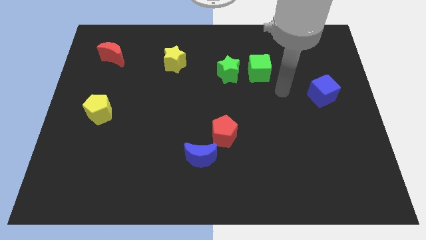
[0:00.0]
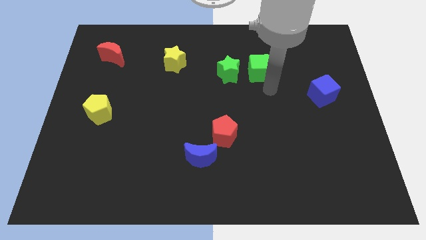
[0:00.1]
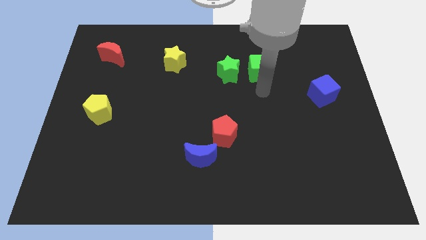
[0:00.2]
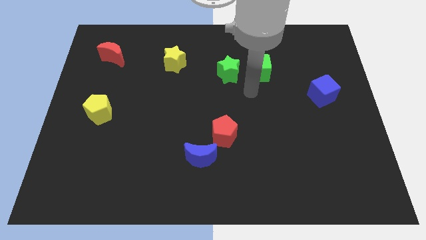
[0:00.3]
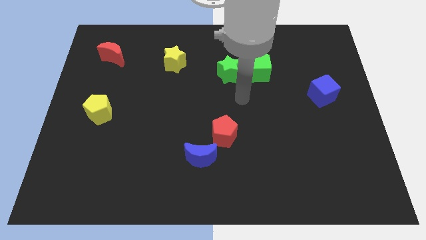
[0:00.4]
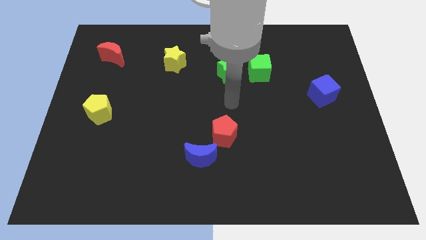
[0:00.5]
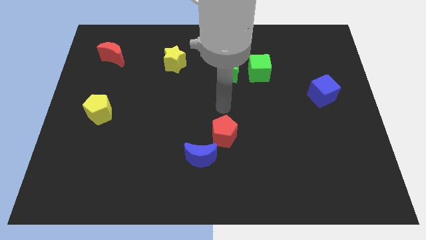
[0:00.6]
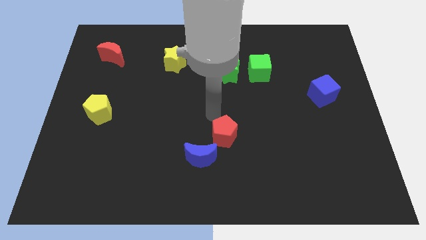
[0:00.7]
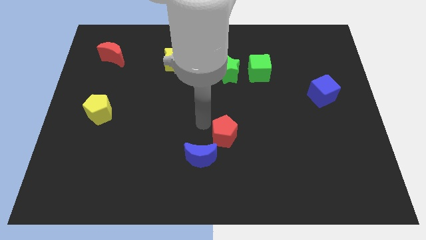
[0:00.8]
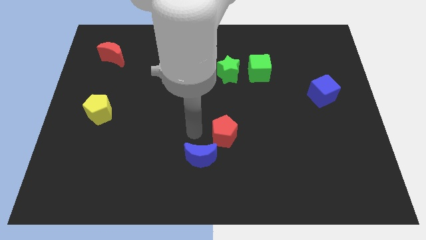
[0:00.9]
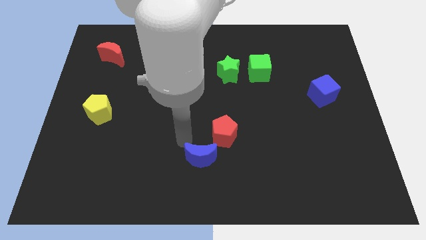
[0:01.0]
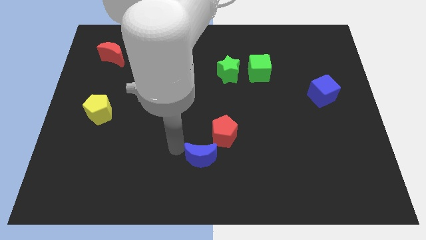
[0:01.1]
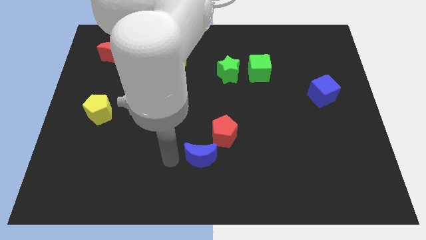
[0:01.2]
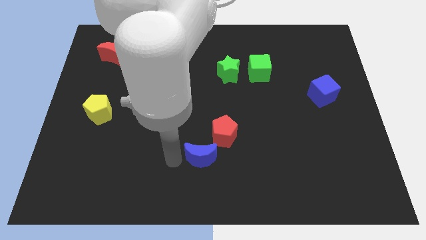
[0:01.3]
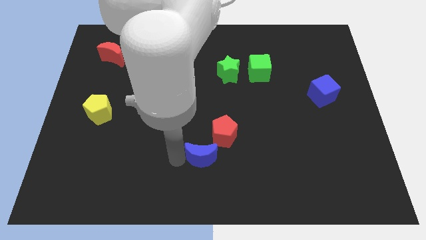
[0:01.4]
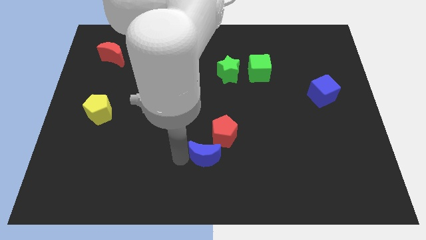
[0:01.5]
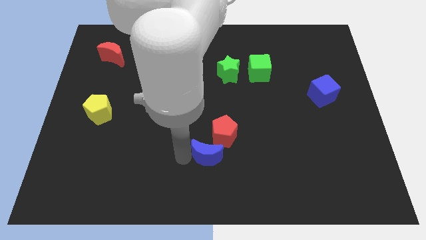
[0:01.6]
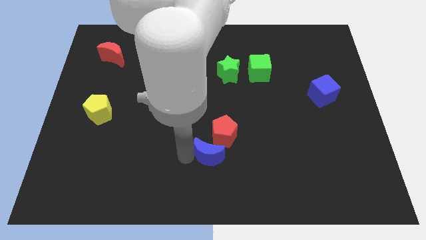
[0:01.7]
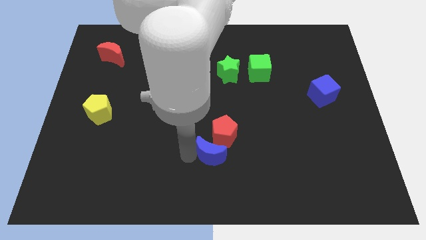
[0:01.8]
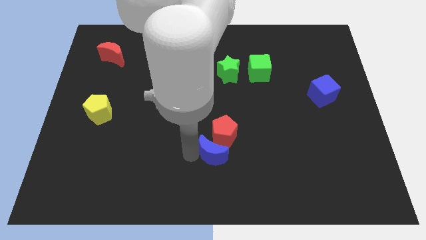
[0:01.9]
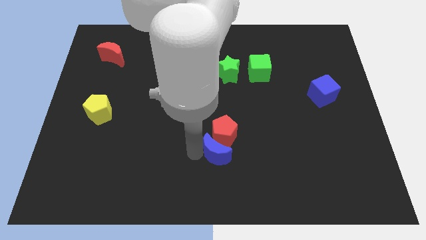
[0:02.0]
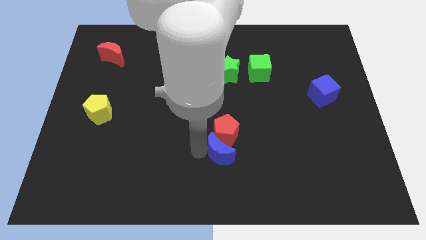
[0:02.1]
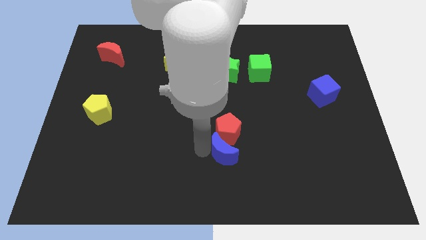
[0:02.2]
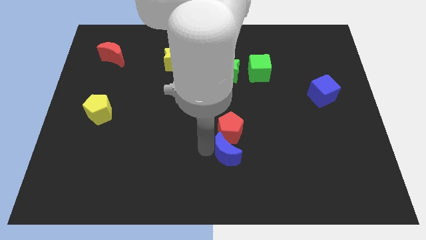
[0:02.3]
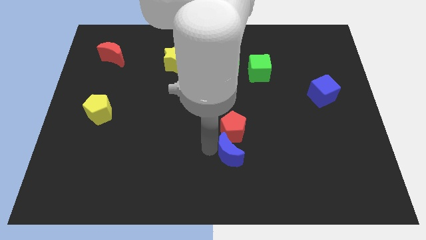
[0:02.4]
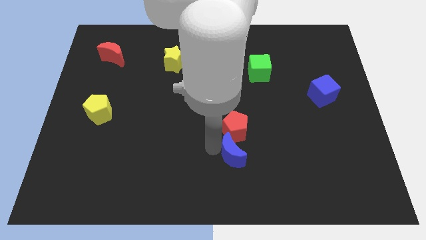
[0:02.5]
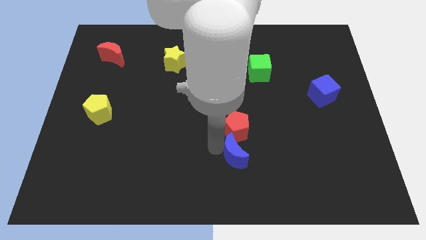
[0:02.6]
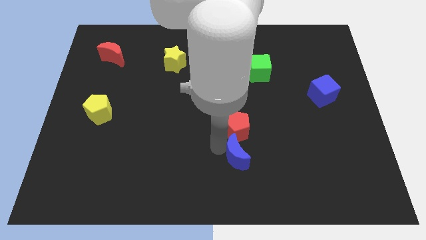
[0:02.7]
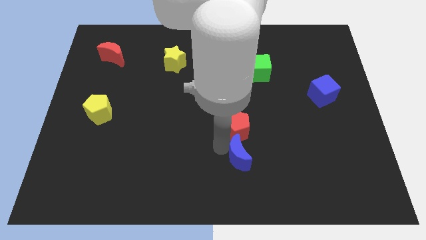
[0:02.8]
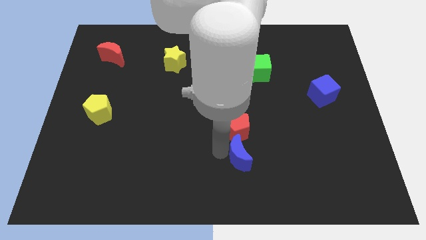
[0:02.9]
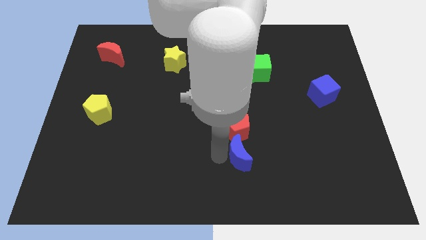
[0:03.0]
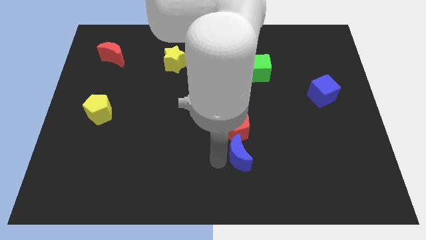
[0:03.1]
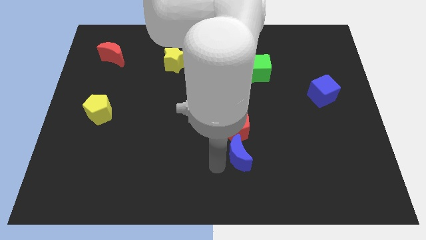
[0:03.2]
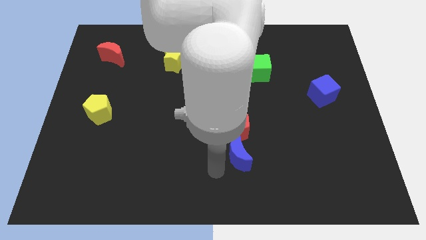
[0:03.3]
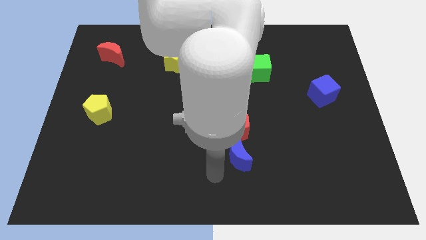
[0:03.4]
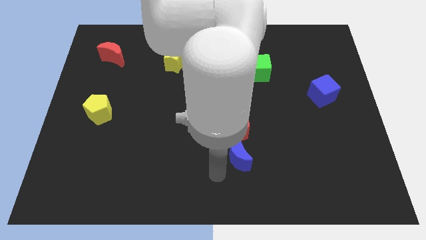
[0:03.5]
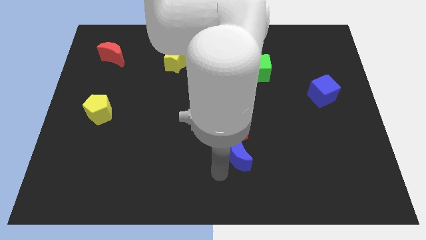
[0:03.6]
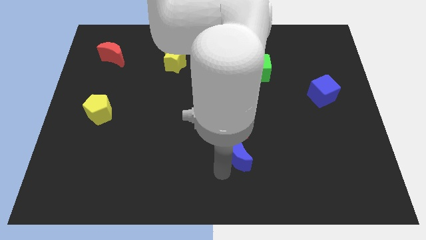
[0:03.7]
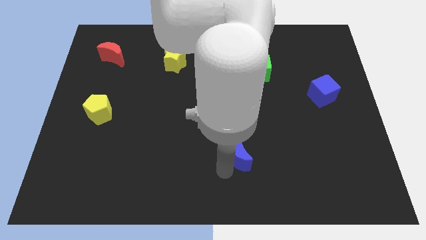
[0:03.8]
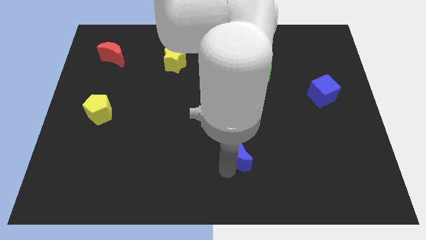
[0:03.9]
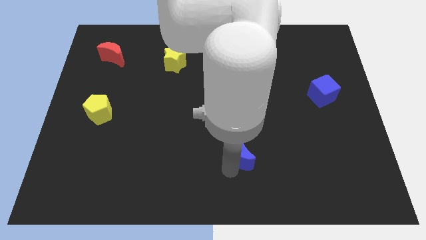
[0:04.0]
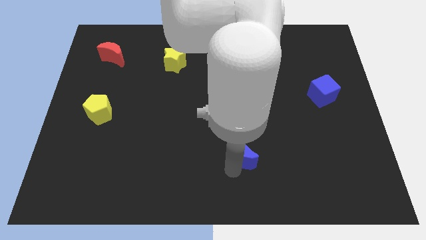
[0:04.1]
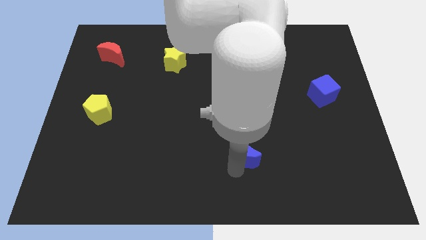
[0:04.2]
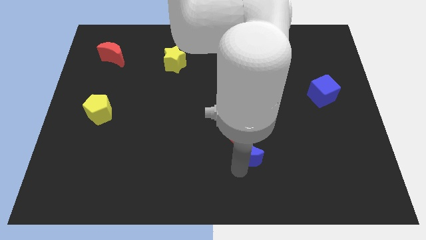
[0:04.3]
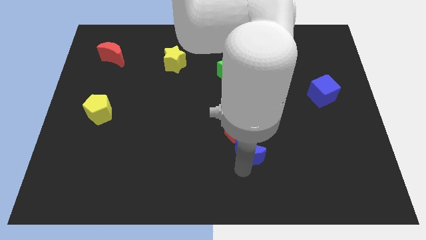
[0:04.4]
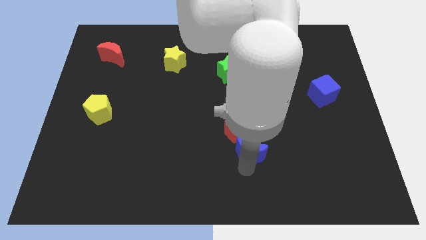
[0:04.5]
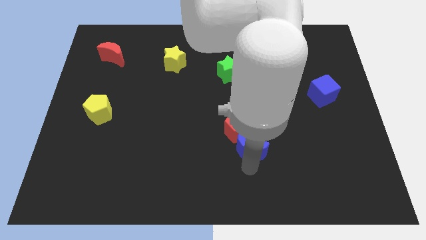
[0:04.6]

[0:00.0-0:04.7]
slide the blue moon a little up and to the right

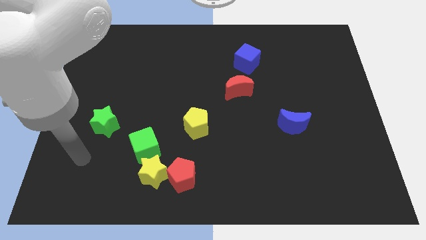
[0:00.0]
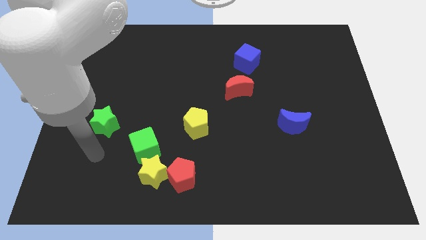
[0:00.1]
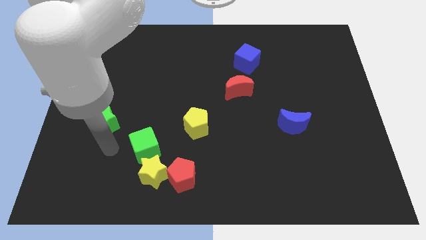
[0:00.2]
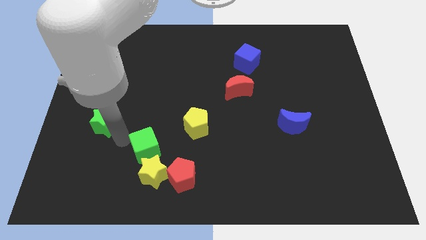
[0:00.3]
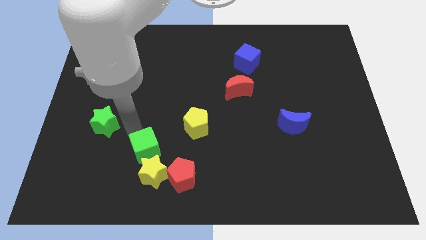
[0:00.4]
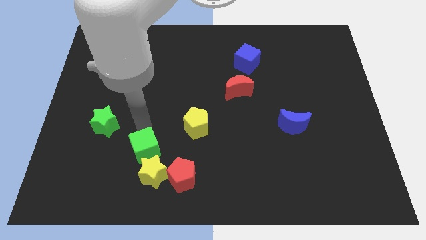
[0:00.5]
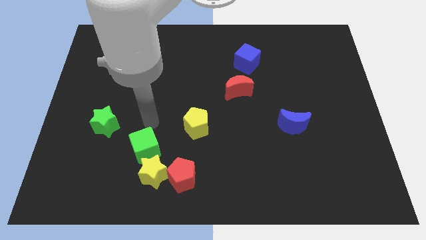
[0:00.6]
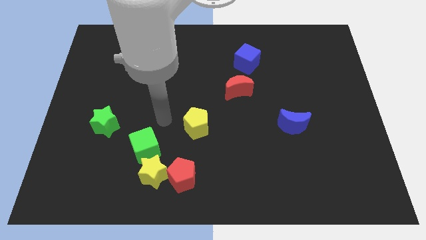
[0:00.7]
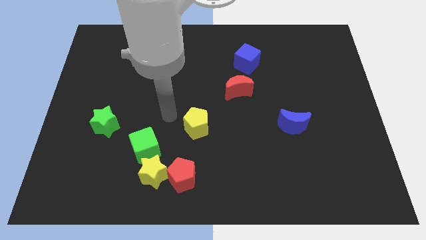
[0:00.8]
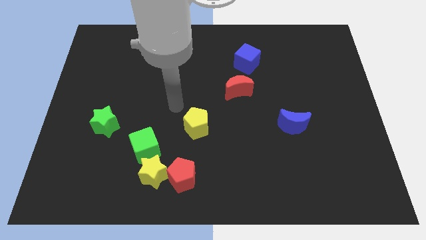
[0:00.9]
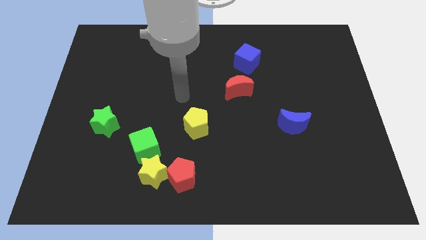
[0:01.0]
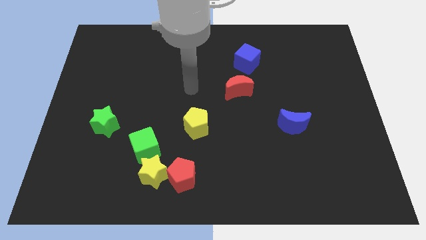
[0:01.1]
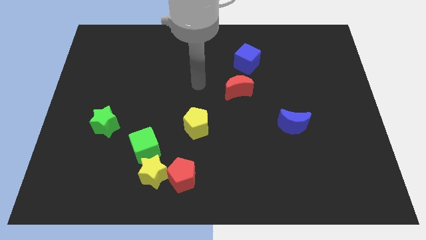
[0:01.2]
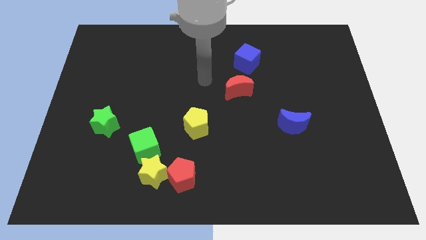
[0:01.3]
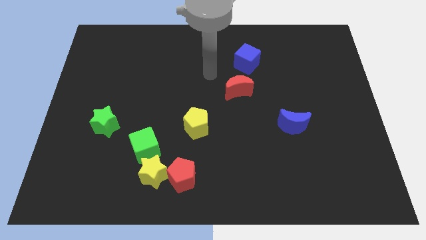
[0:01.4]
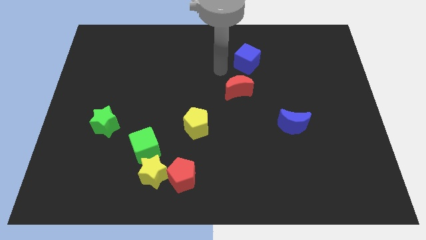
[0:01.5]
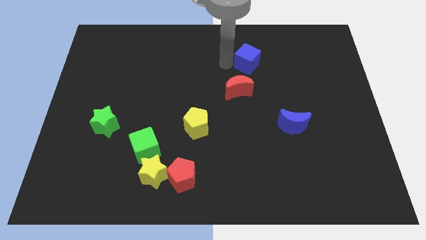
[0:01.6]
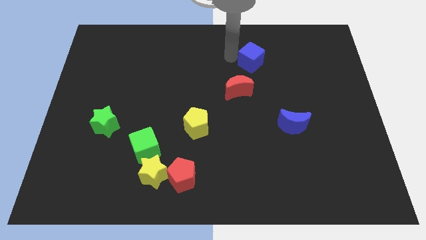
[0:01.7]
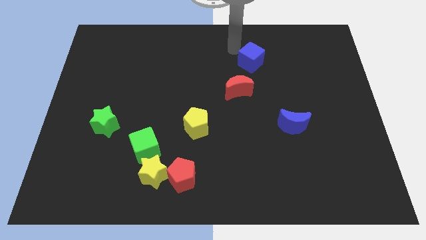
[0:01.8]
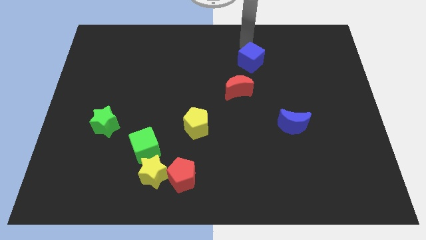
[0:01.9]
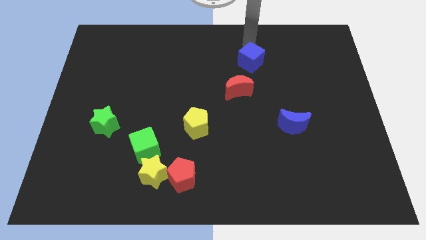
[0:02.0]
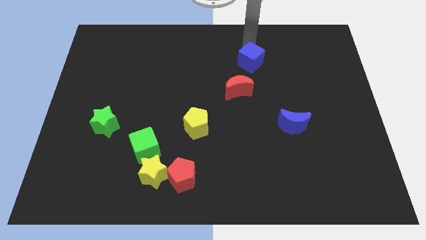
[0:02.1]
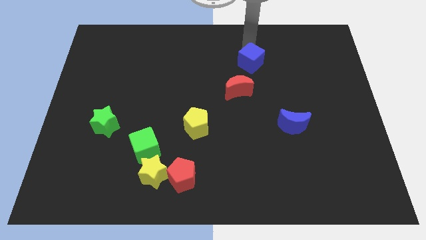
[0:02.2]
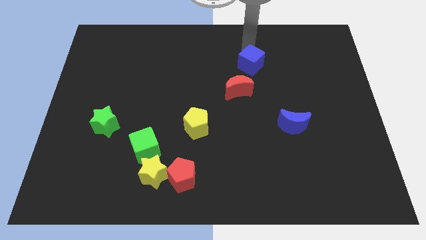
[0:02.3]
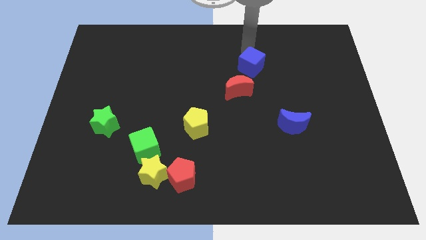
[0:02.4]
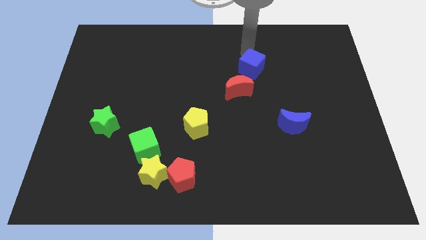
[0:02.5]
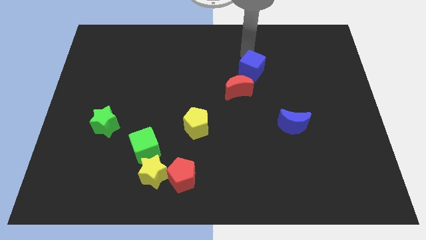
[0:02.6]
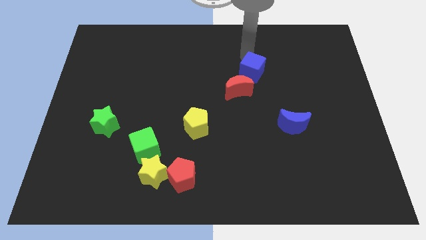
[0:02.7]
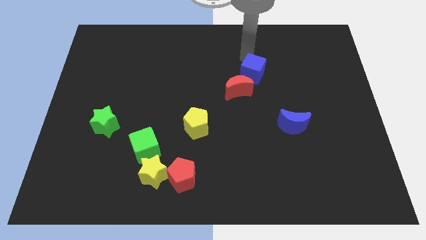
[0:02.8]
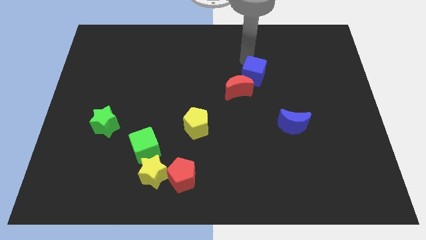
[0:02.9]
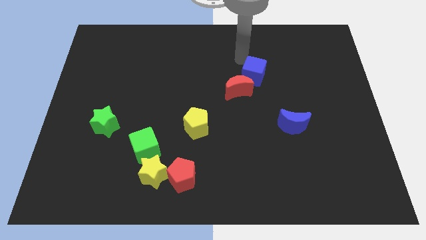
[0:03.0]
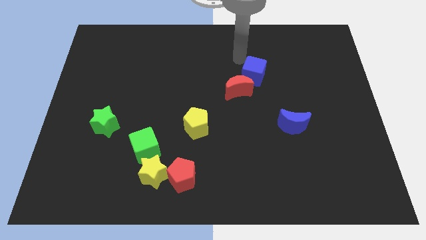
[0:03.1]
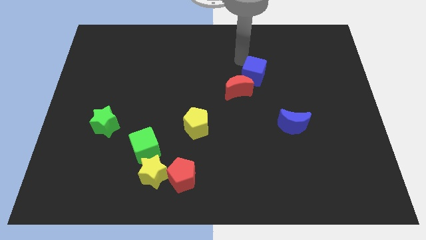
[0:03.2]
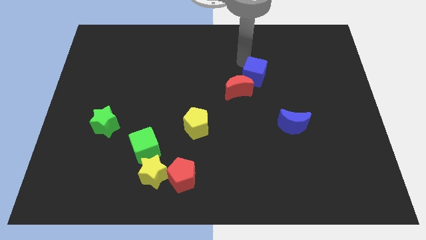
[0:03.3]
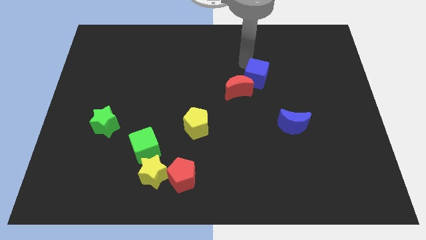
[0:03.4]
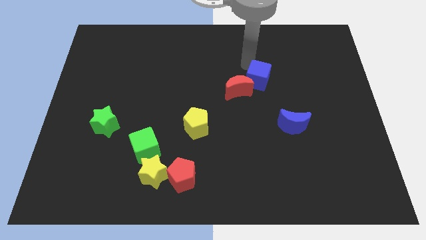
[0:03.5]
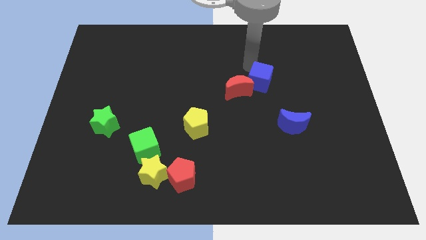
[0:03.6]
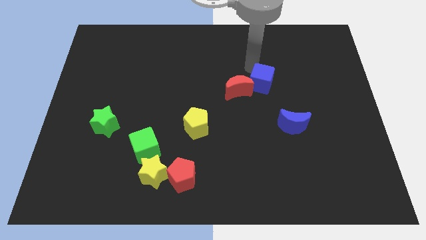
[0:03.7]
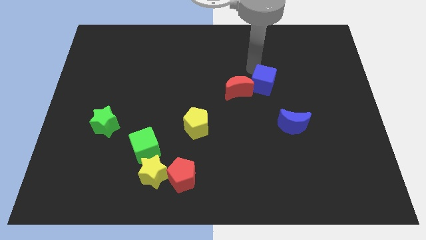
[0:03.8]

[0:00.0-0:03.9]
slide the blue cube somewhat down
